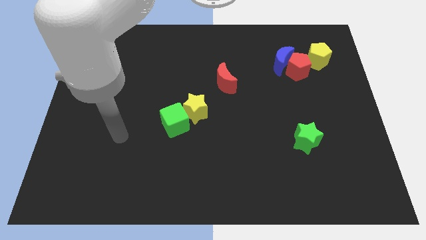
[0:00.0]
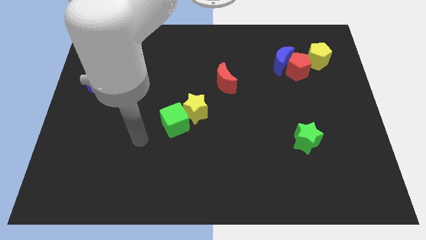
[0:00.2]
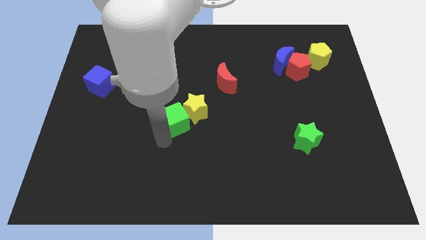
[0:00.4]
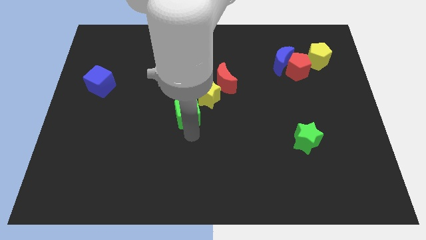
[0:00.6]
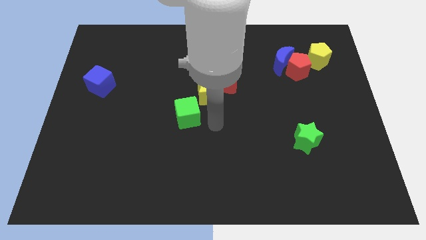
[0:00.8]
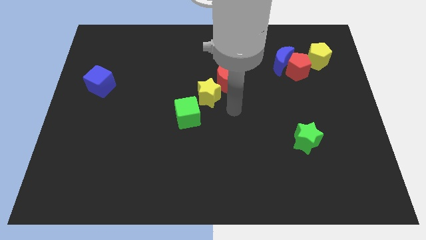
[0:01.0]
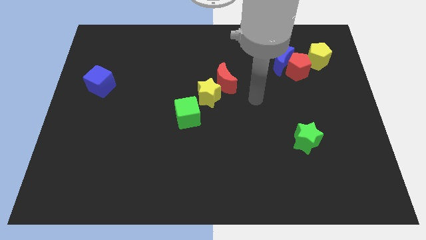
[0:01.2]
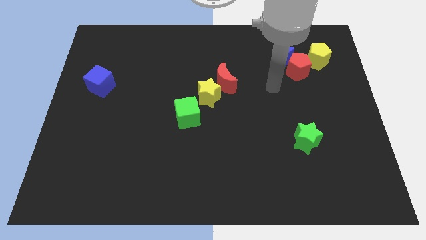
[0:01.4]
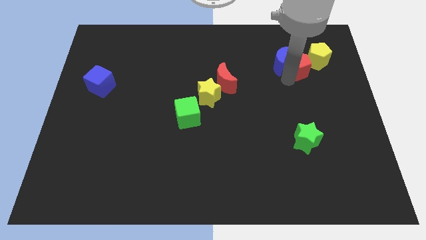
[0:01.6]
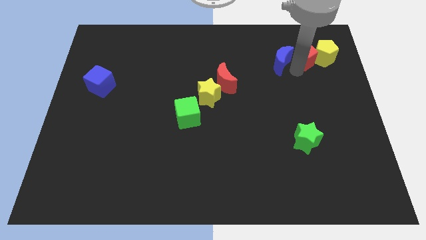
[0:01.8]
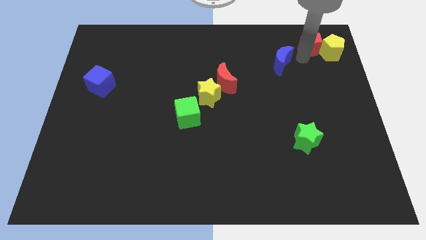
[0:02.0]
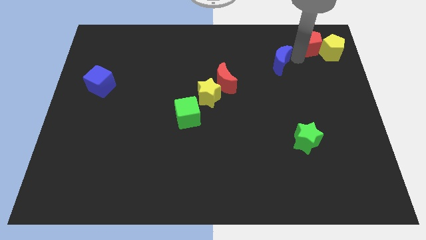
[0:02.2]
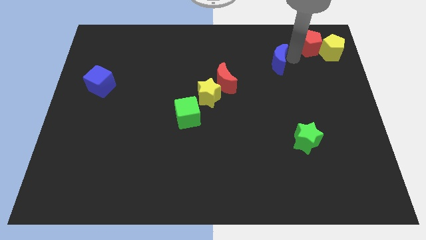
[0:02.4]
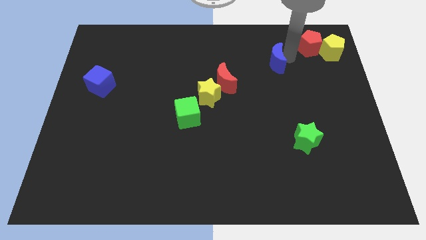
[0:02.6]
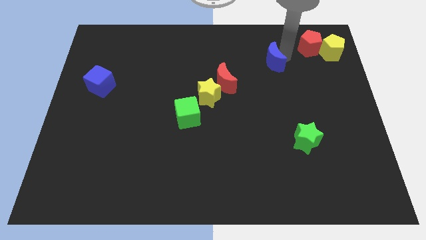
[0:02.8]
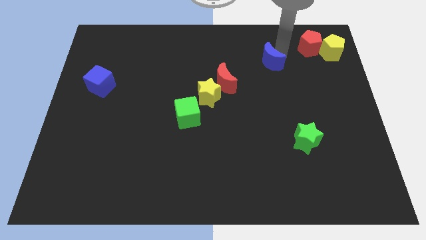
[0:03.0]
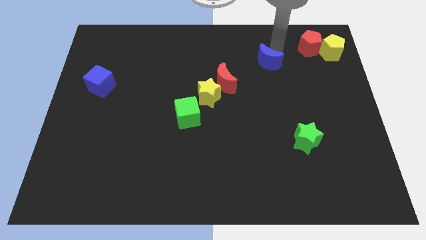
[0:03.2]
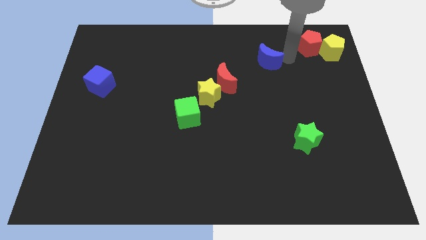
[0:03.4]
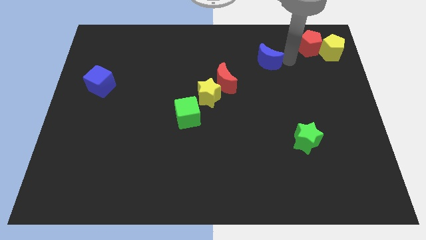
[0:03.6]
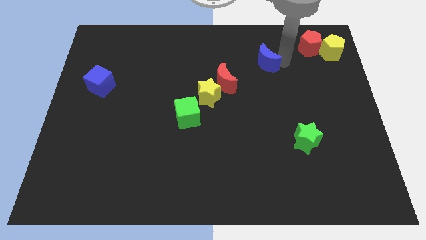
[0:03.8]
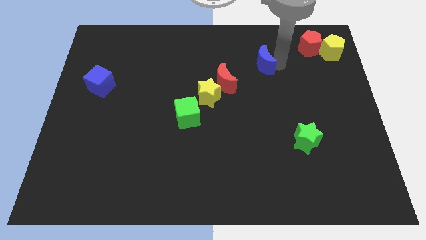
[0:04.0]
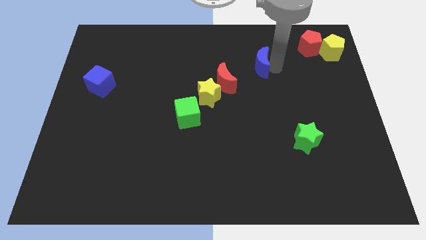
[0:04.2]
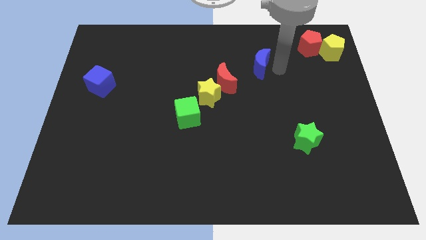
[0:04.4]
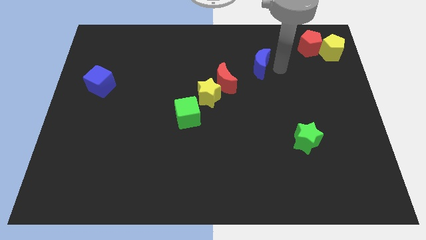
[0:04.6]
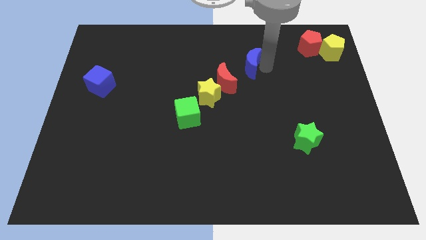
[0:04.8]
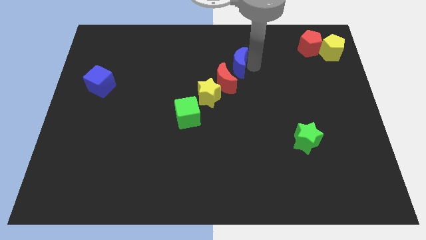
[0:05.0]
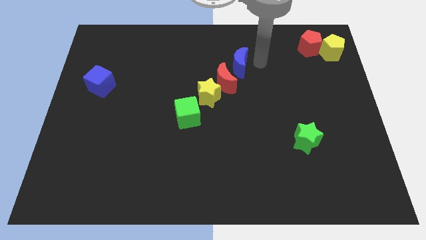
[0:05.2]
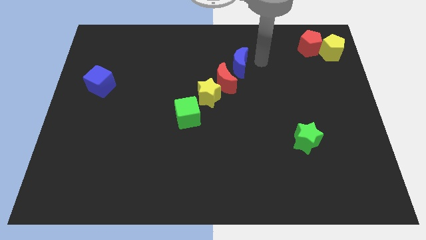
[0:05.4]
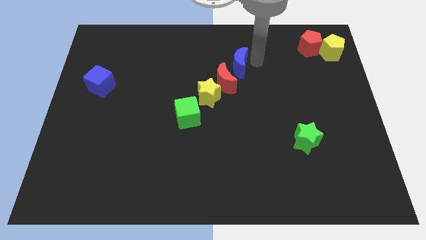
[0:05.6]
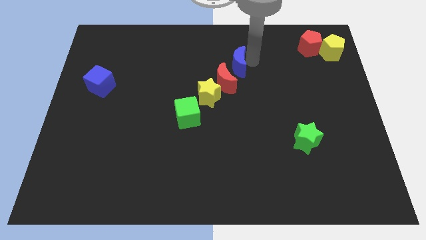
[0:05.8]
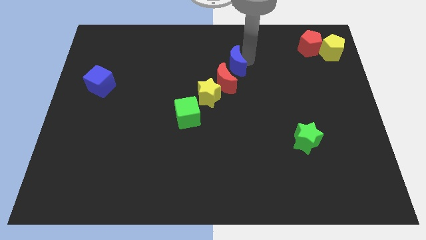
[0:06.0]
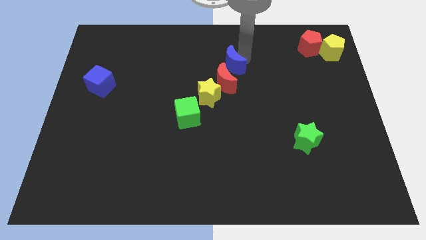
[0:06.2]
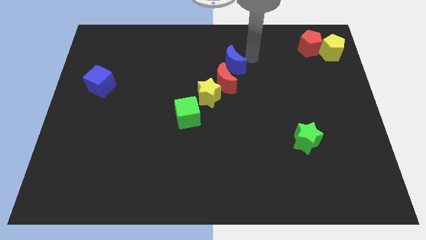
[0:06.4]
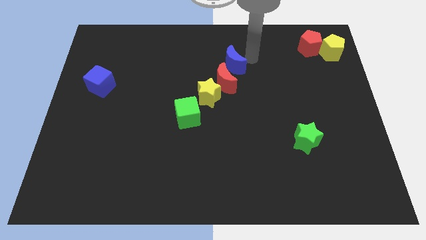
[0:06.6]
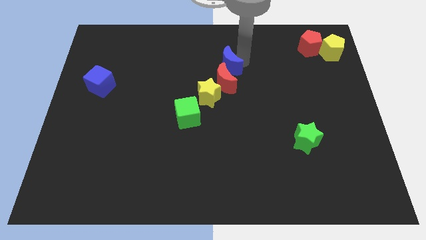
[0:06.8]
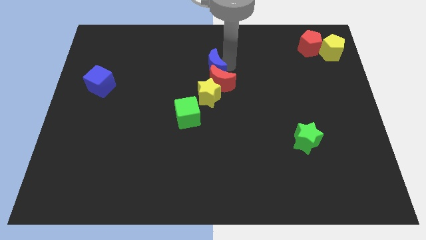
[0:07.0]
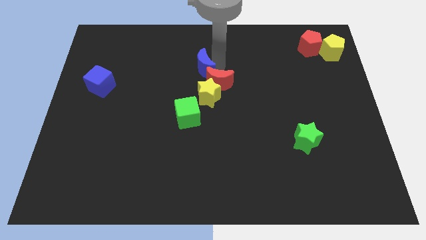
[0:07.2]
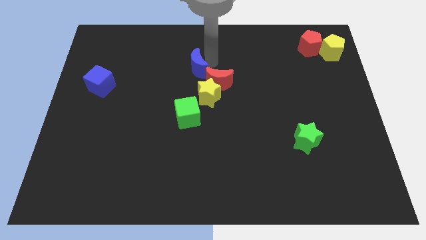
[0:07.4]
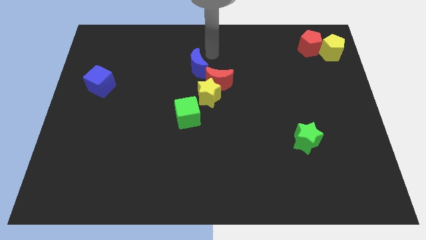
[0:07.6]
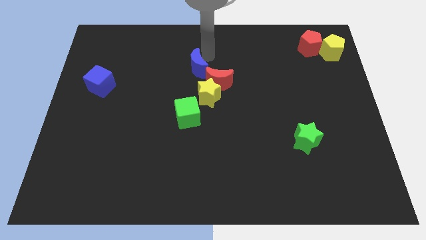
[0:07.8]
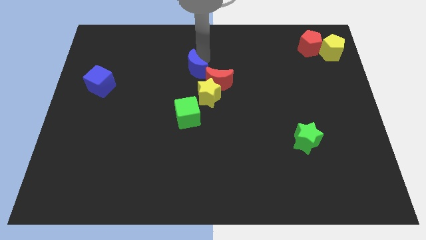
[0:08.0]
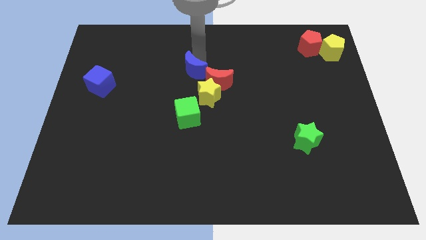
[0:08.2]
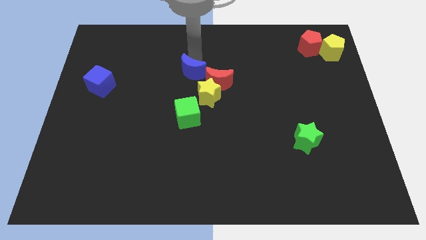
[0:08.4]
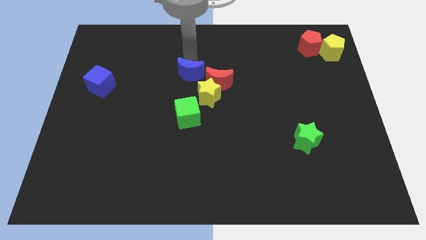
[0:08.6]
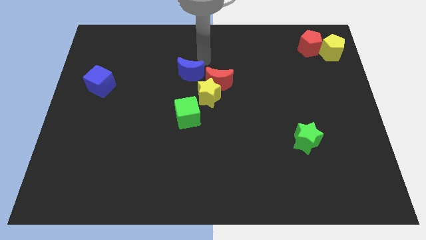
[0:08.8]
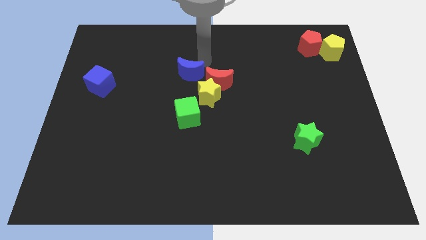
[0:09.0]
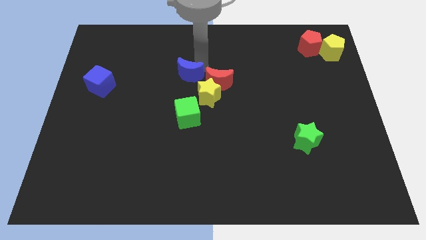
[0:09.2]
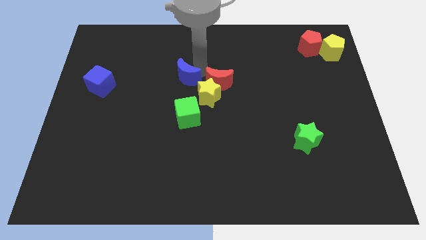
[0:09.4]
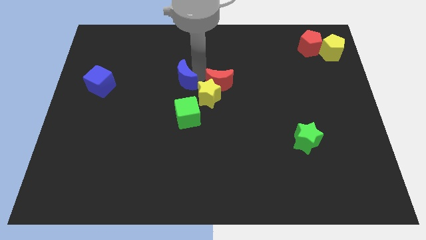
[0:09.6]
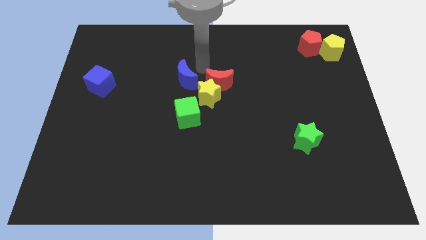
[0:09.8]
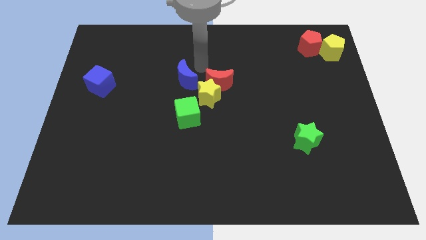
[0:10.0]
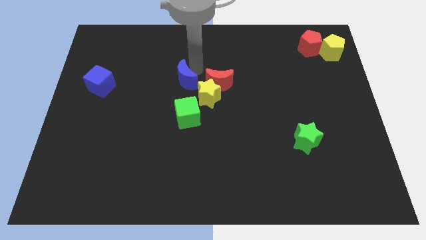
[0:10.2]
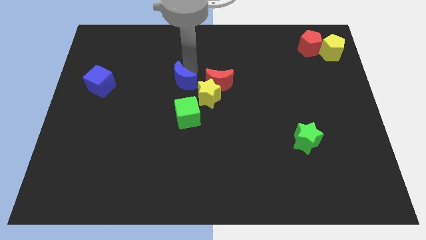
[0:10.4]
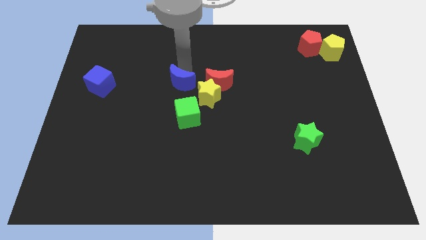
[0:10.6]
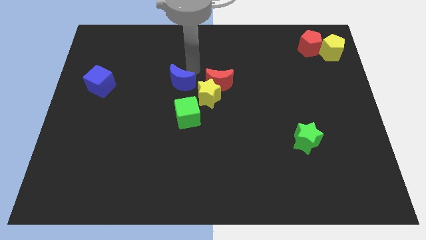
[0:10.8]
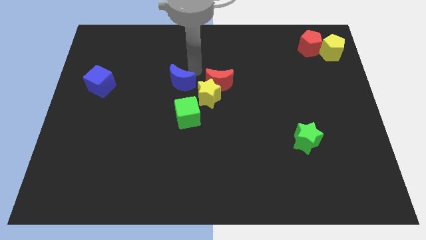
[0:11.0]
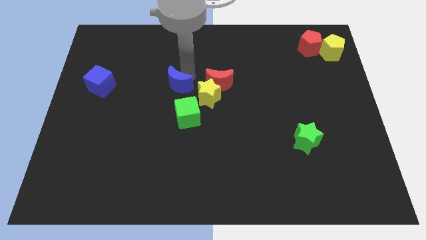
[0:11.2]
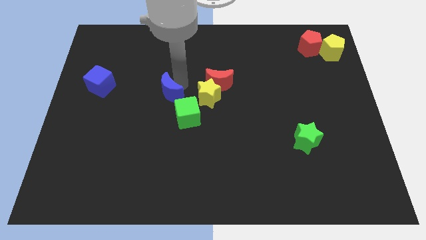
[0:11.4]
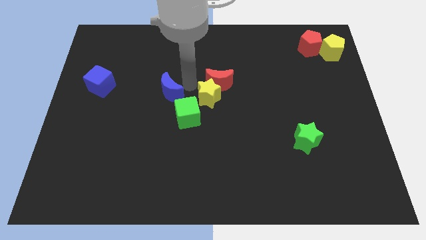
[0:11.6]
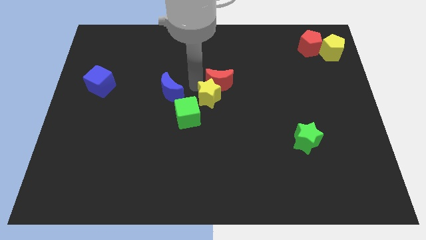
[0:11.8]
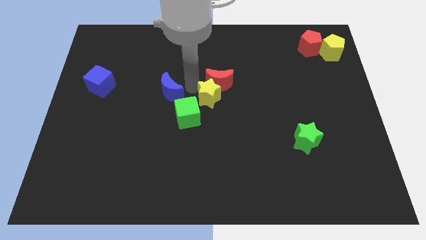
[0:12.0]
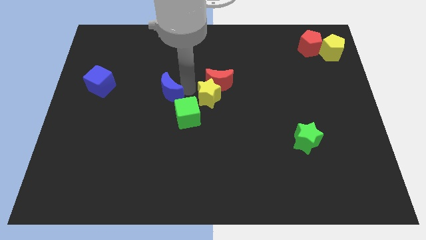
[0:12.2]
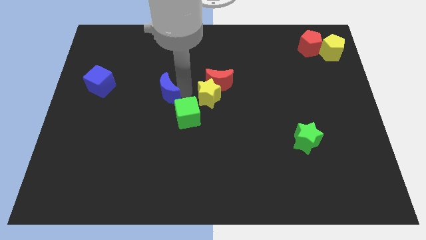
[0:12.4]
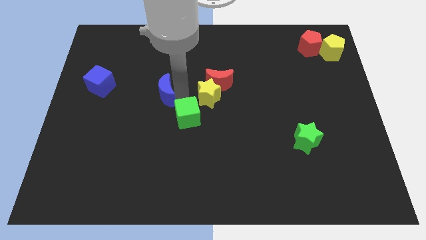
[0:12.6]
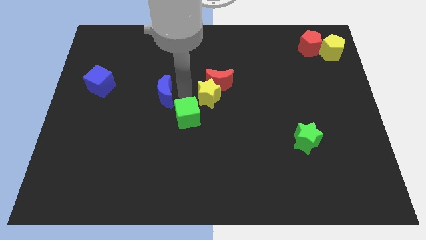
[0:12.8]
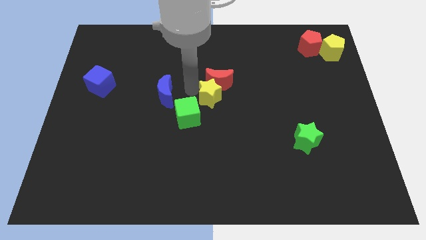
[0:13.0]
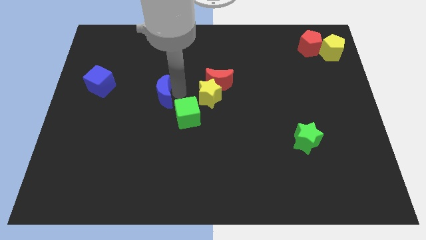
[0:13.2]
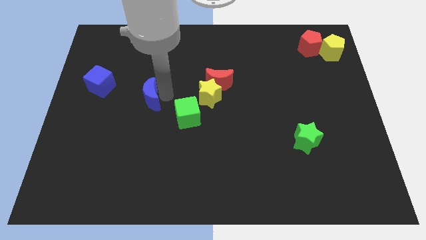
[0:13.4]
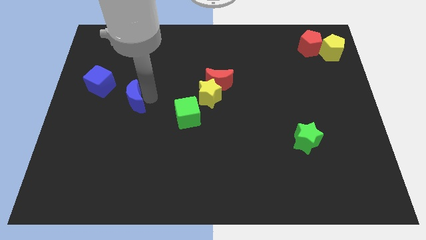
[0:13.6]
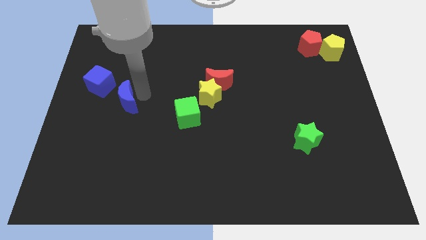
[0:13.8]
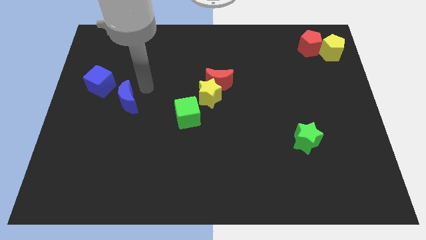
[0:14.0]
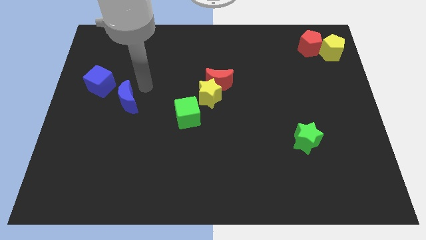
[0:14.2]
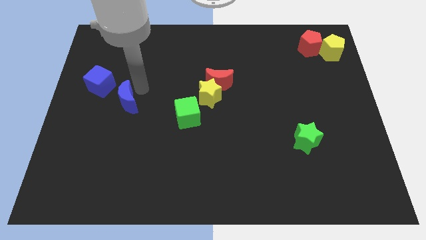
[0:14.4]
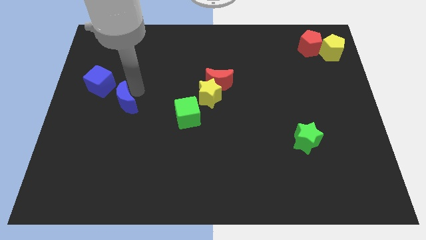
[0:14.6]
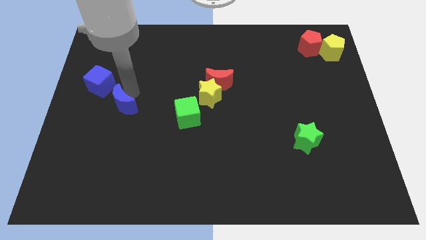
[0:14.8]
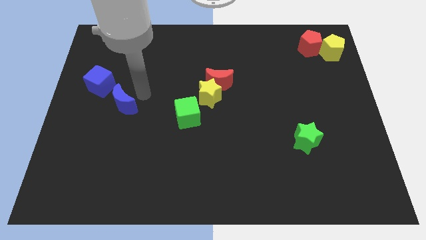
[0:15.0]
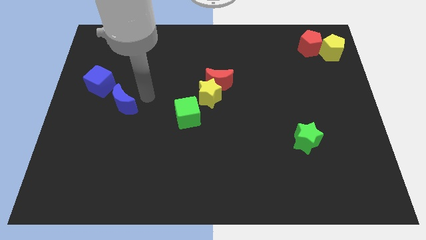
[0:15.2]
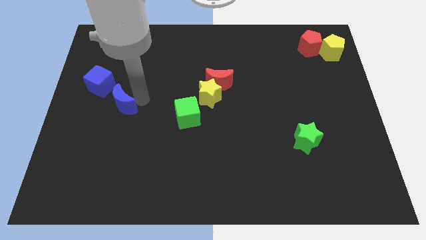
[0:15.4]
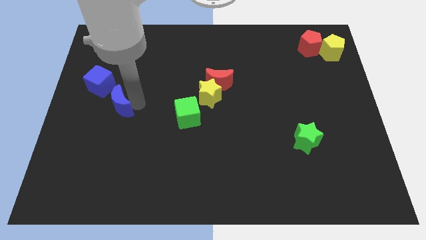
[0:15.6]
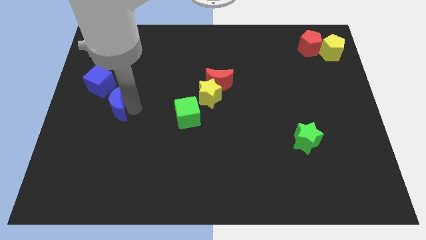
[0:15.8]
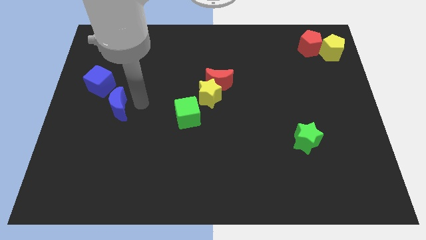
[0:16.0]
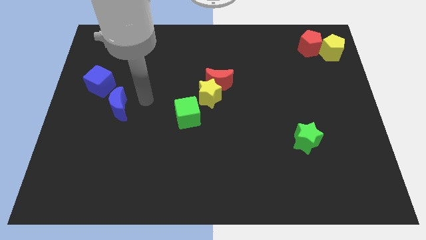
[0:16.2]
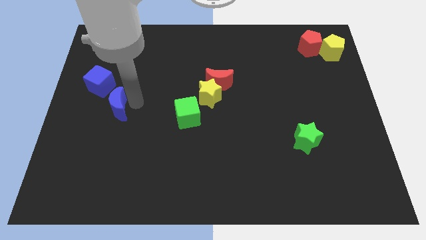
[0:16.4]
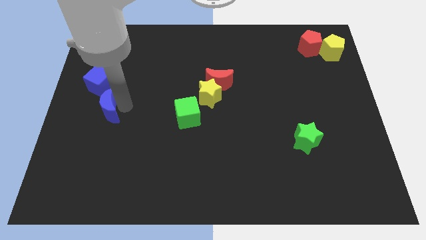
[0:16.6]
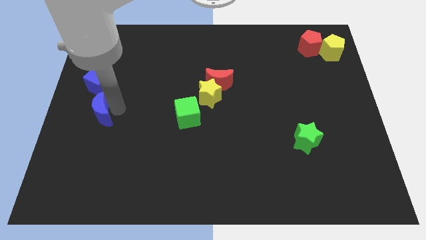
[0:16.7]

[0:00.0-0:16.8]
slide the blue moon to the left side
